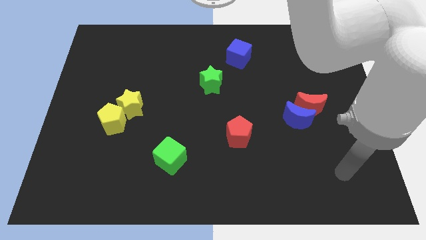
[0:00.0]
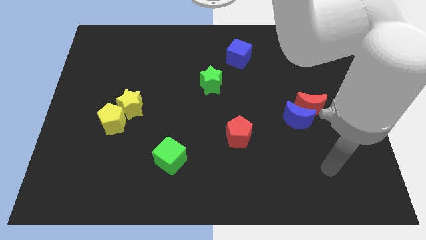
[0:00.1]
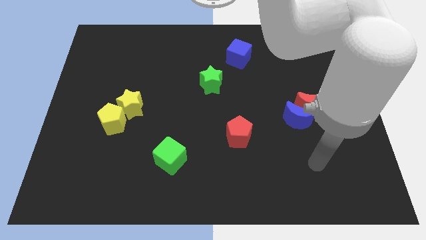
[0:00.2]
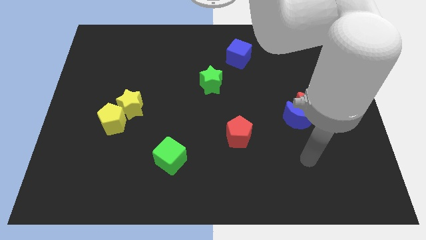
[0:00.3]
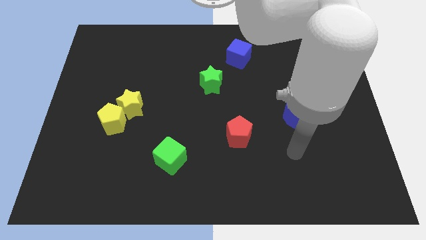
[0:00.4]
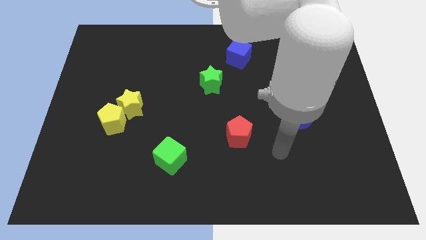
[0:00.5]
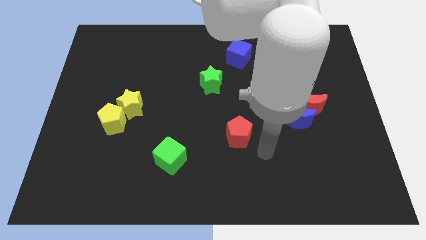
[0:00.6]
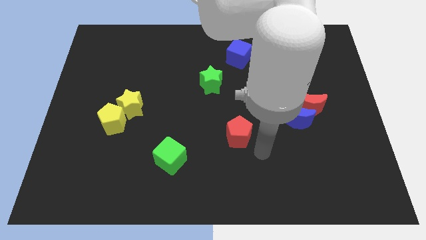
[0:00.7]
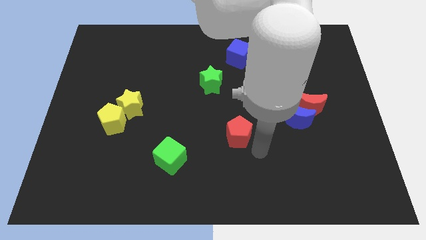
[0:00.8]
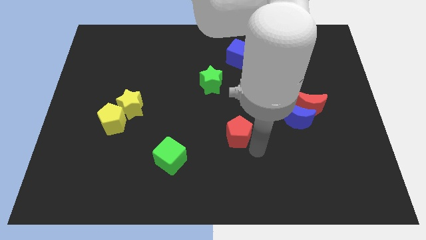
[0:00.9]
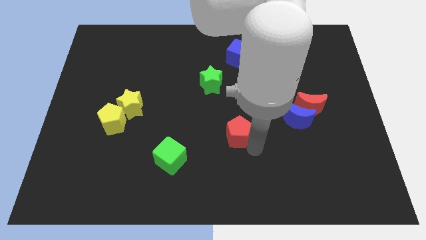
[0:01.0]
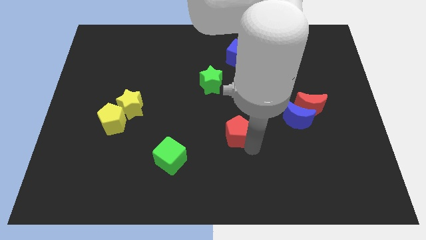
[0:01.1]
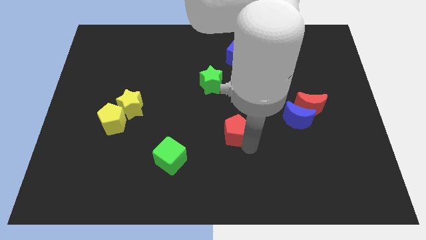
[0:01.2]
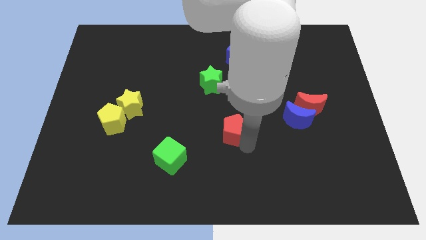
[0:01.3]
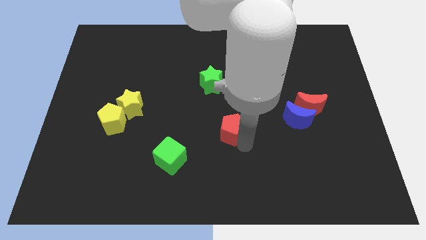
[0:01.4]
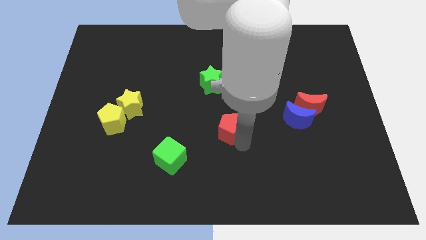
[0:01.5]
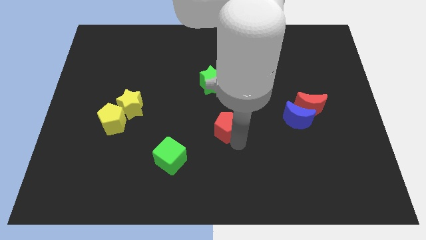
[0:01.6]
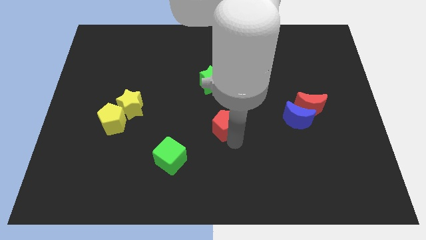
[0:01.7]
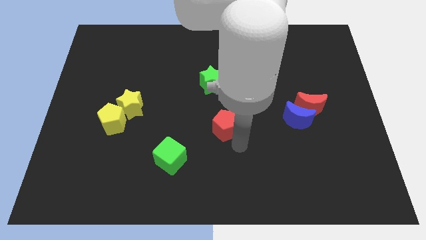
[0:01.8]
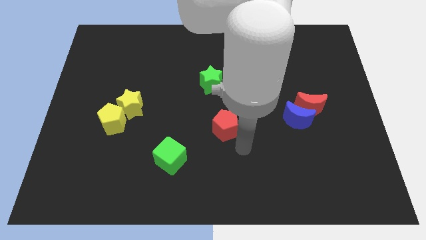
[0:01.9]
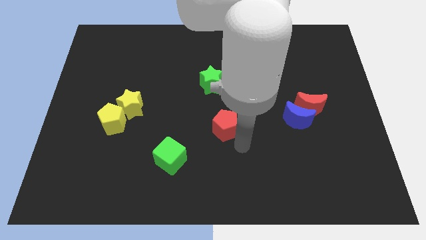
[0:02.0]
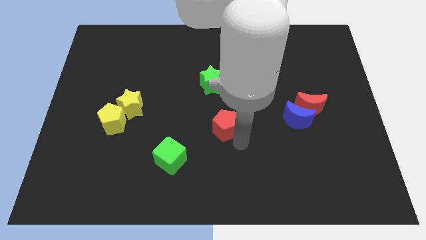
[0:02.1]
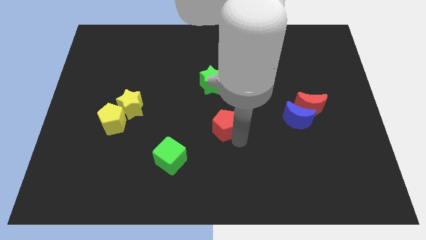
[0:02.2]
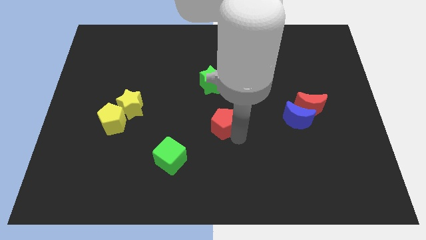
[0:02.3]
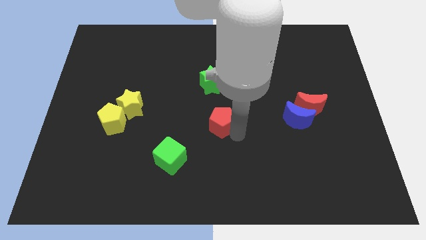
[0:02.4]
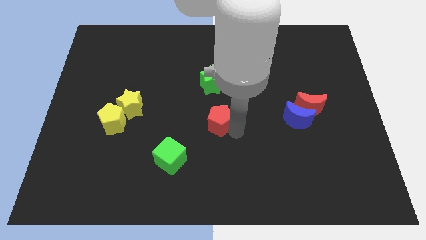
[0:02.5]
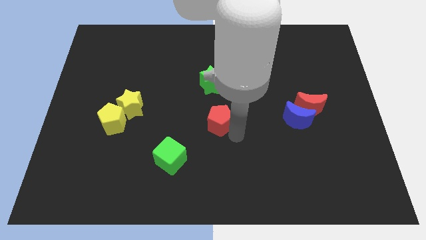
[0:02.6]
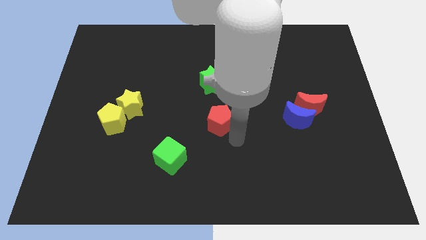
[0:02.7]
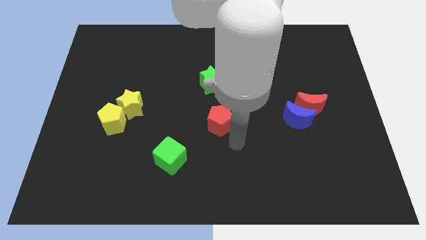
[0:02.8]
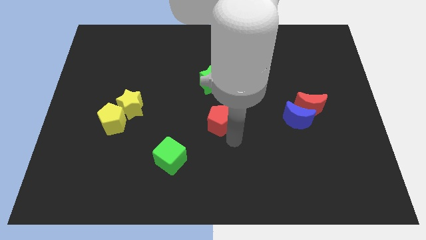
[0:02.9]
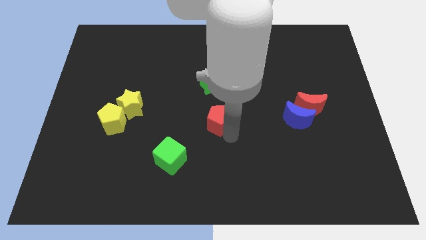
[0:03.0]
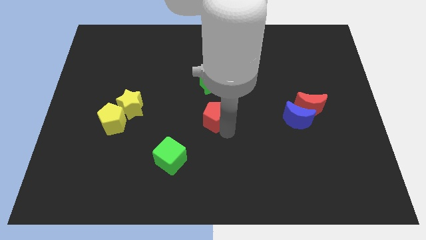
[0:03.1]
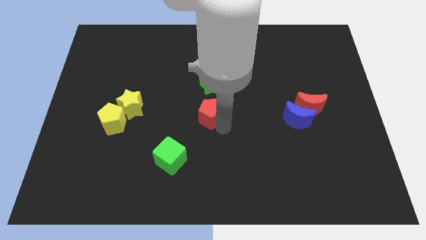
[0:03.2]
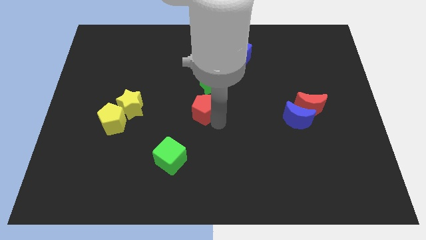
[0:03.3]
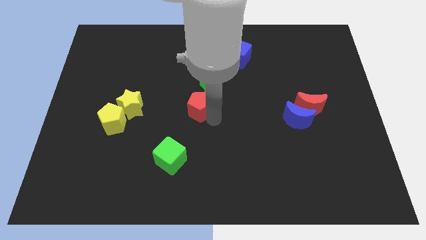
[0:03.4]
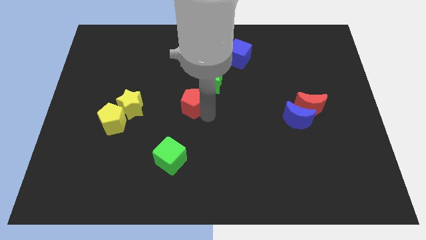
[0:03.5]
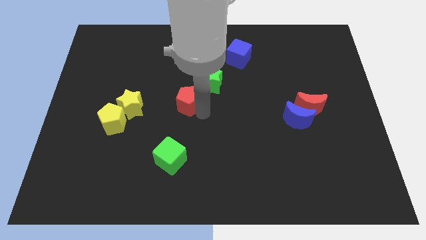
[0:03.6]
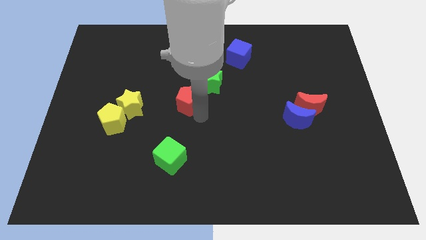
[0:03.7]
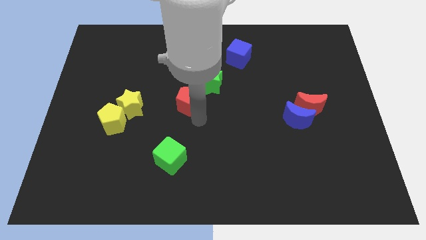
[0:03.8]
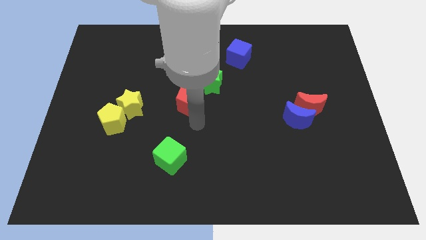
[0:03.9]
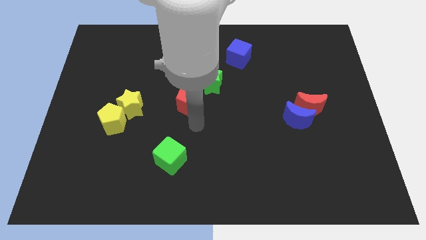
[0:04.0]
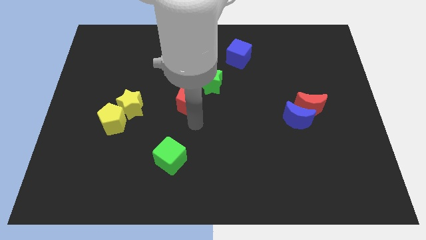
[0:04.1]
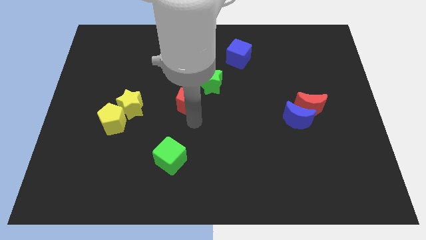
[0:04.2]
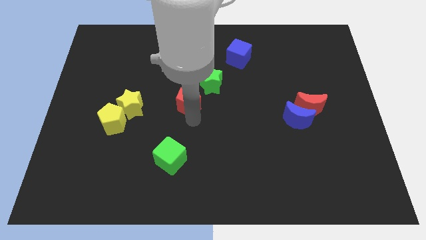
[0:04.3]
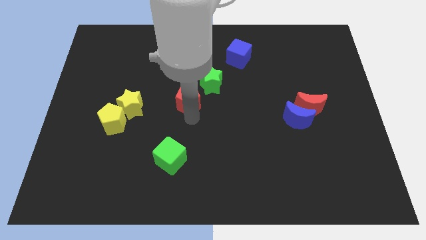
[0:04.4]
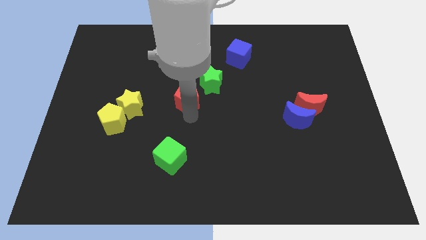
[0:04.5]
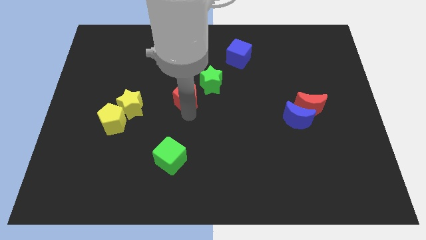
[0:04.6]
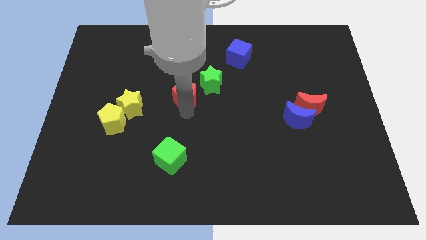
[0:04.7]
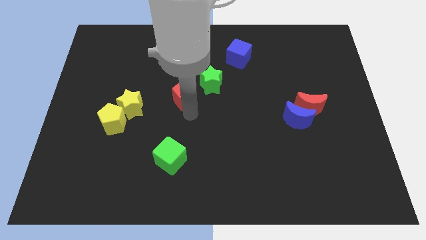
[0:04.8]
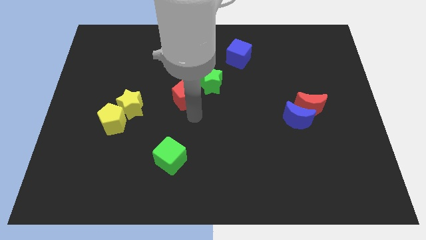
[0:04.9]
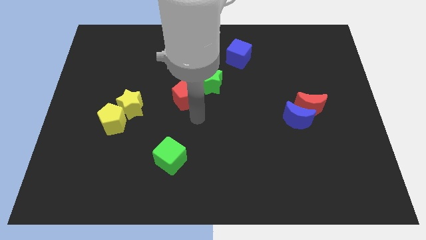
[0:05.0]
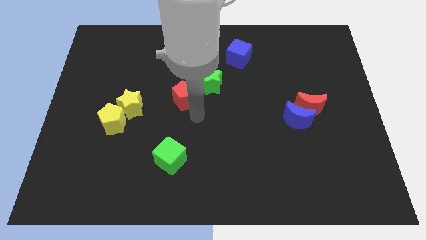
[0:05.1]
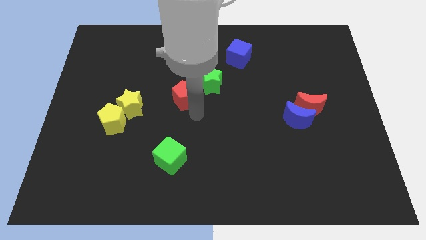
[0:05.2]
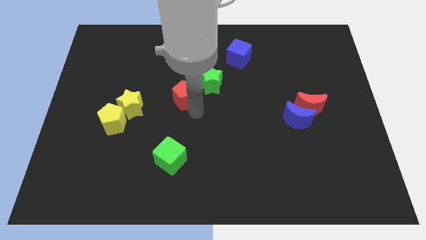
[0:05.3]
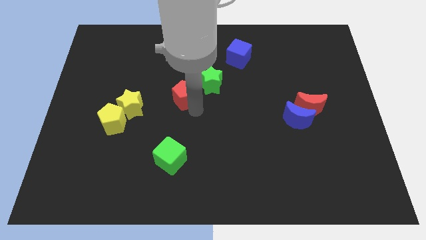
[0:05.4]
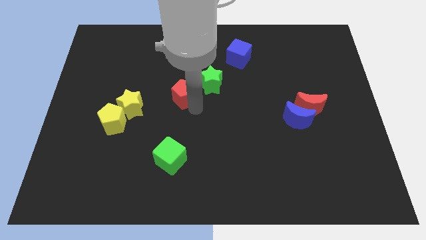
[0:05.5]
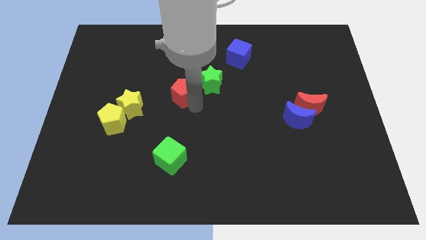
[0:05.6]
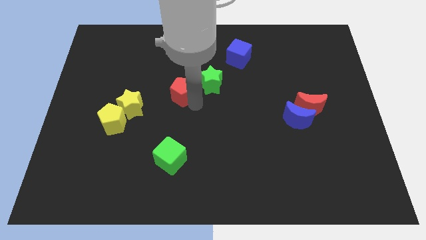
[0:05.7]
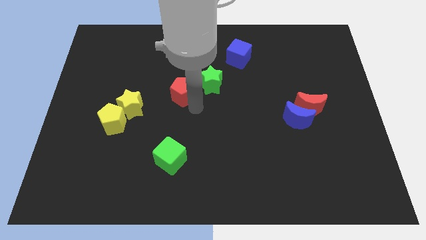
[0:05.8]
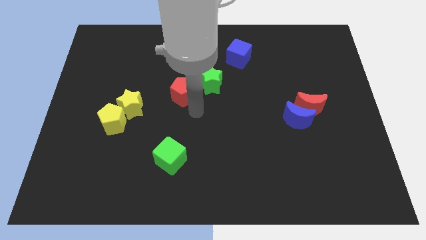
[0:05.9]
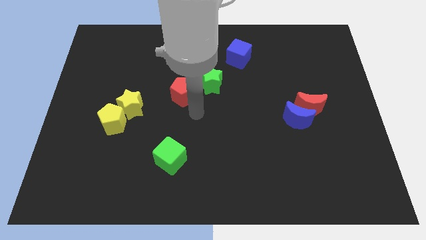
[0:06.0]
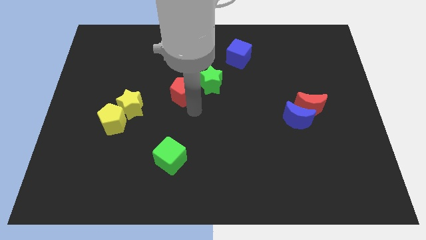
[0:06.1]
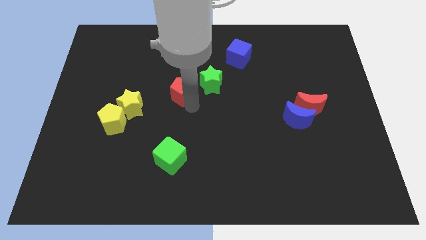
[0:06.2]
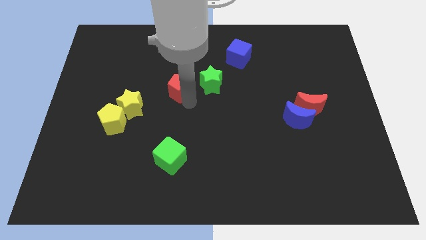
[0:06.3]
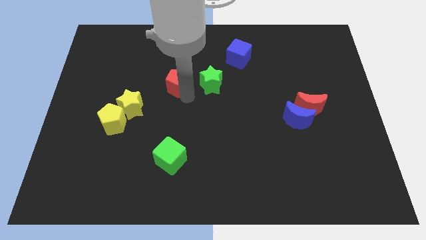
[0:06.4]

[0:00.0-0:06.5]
move the red pentagon upwards and to the left diagonally

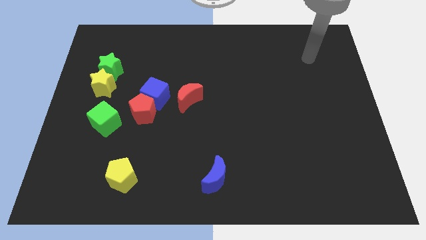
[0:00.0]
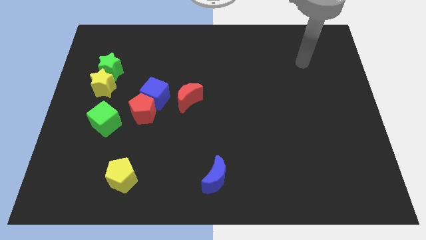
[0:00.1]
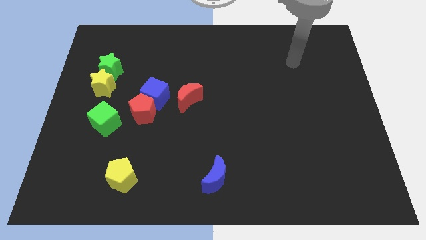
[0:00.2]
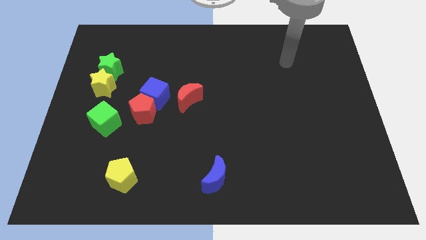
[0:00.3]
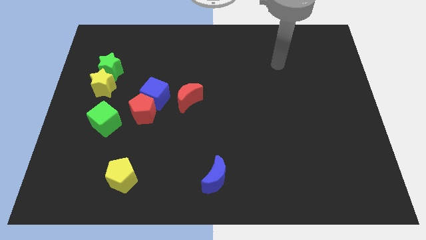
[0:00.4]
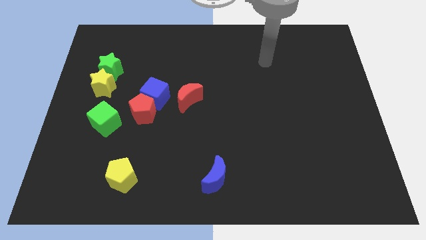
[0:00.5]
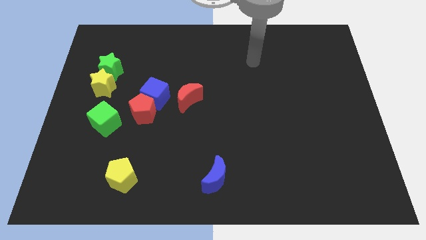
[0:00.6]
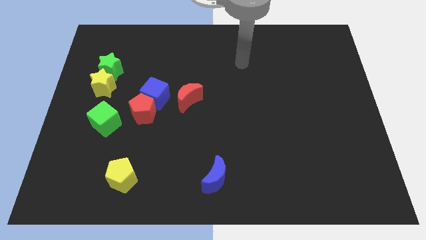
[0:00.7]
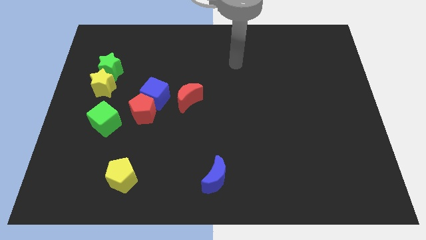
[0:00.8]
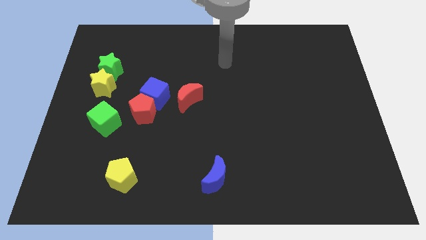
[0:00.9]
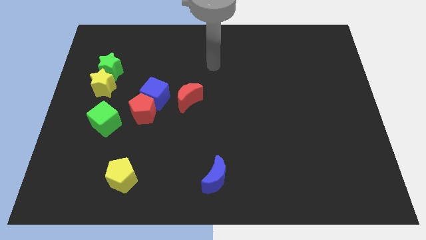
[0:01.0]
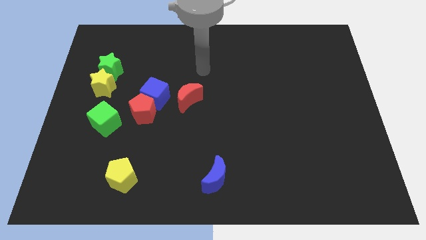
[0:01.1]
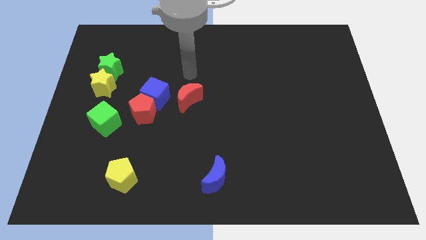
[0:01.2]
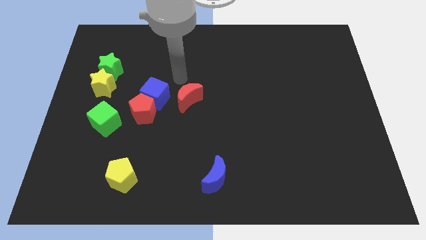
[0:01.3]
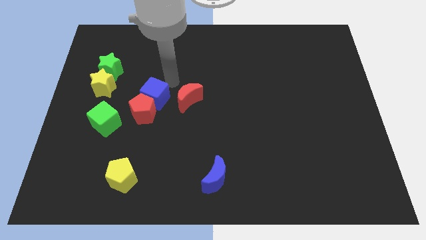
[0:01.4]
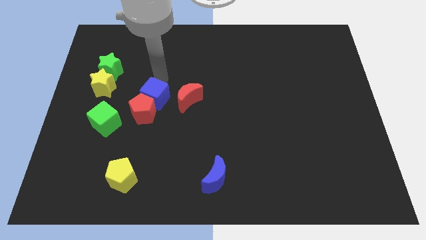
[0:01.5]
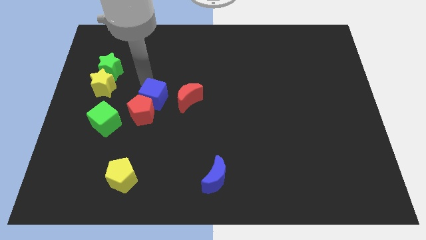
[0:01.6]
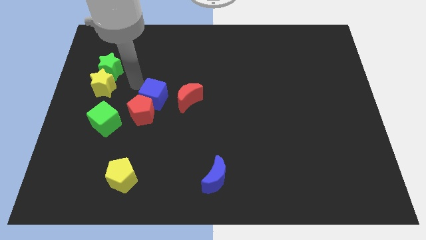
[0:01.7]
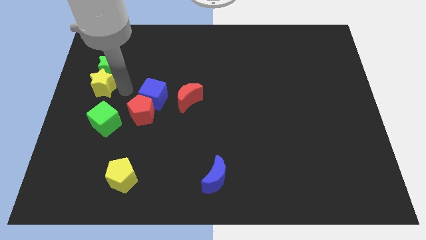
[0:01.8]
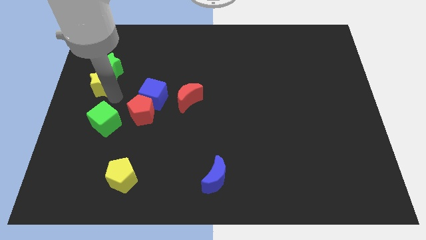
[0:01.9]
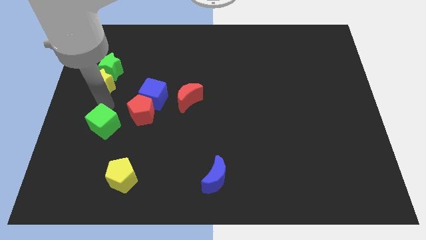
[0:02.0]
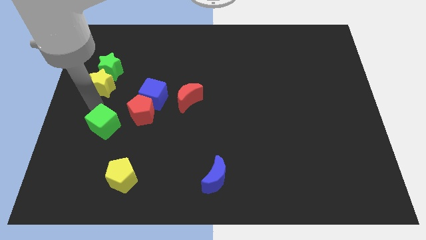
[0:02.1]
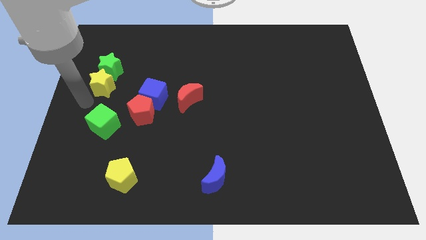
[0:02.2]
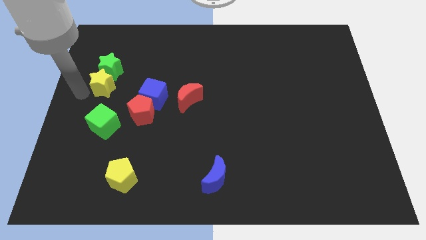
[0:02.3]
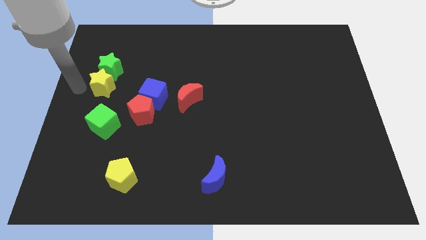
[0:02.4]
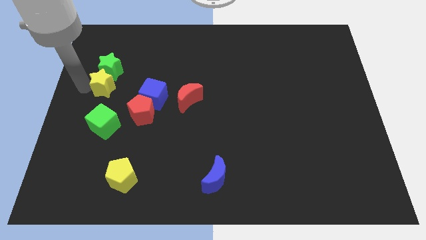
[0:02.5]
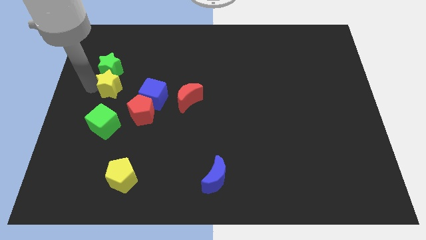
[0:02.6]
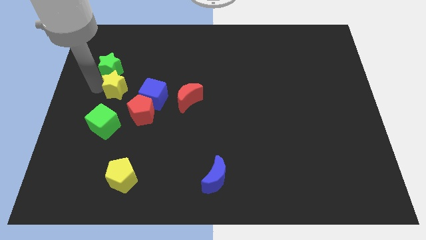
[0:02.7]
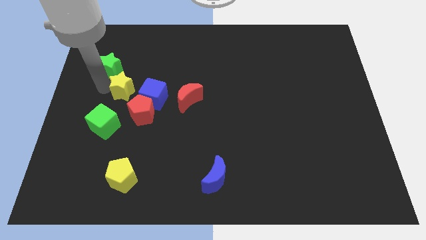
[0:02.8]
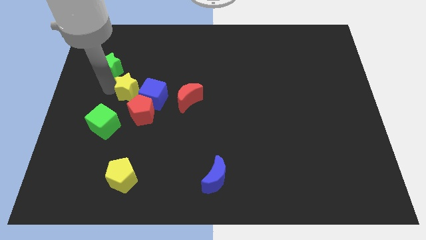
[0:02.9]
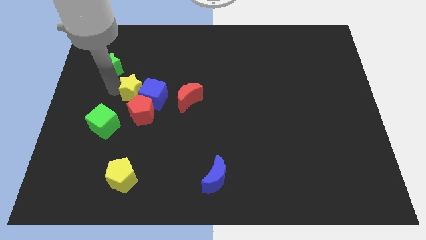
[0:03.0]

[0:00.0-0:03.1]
move the yellow star to the right slightly
